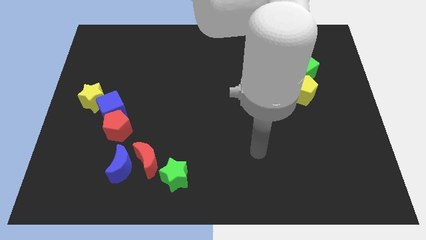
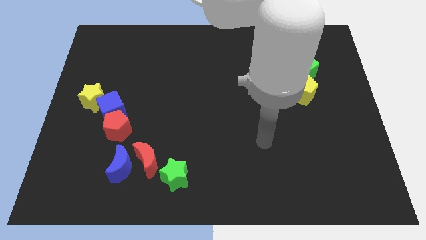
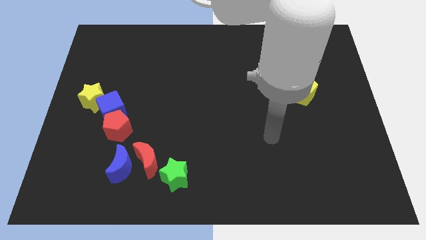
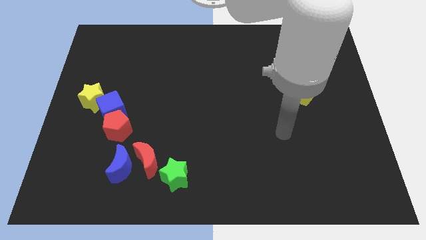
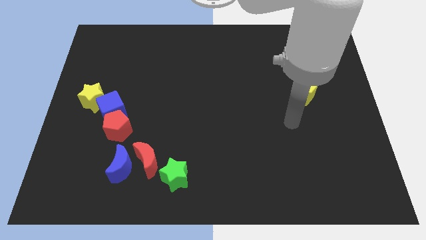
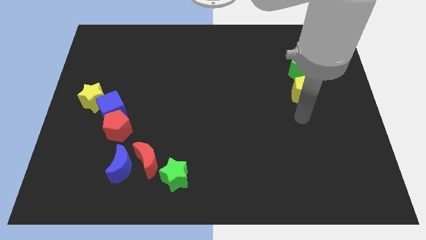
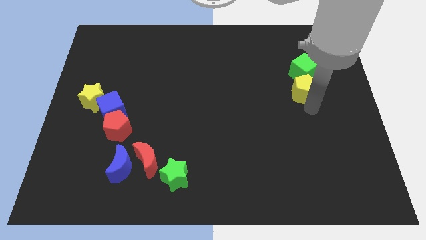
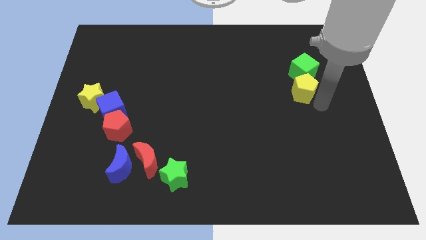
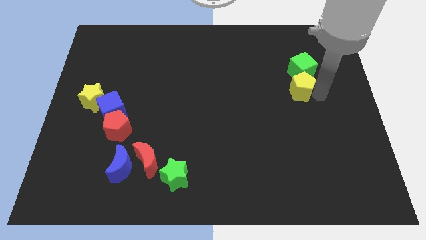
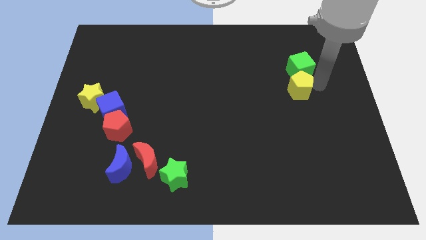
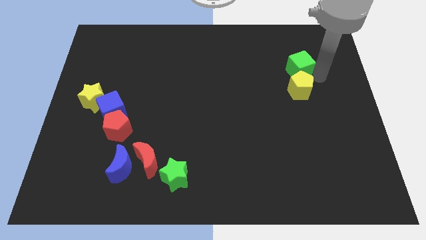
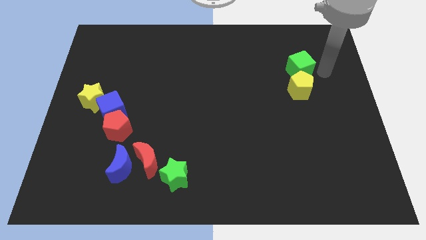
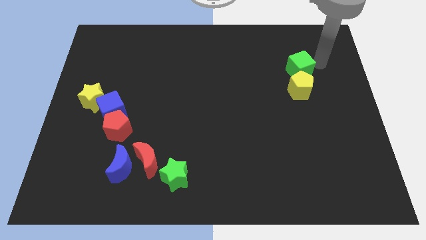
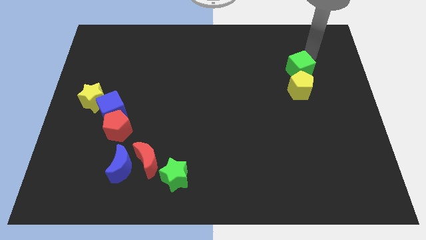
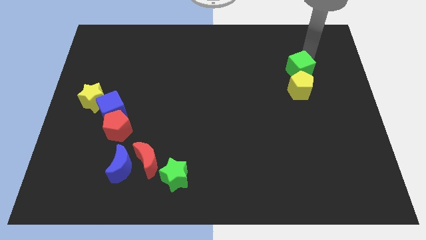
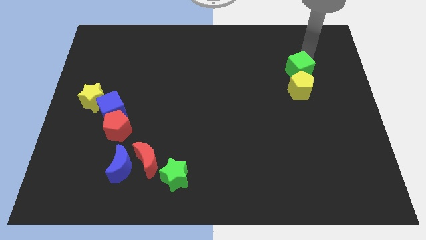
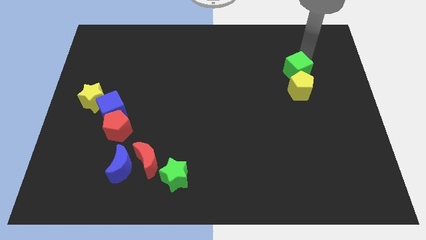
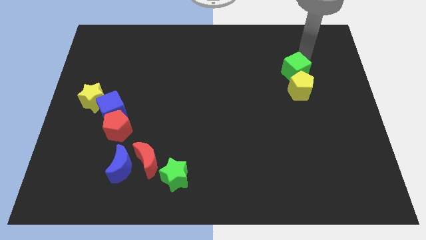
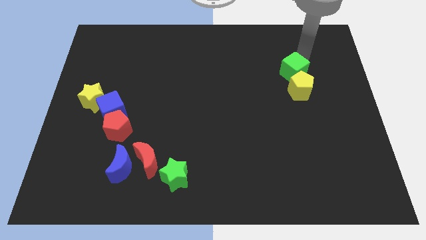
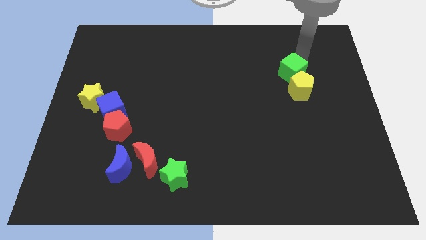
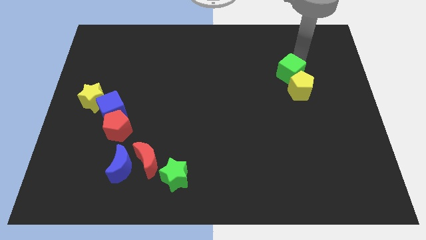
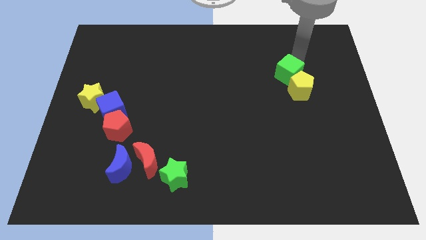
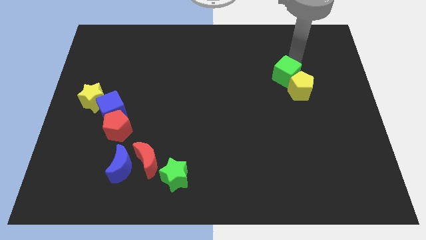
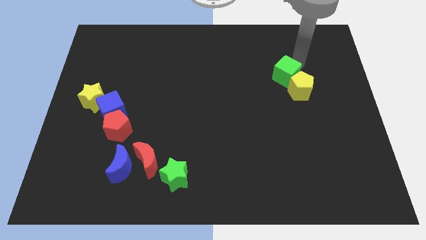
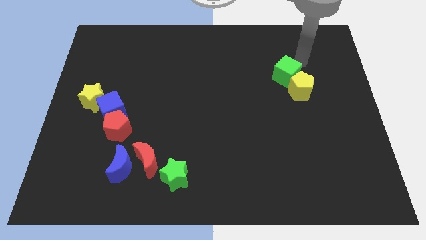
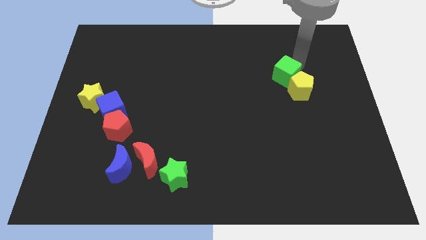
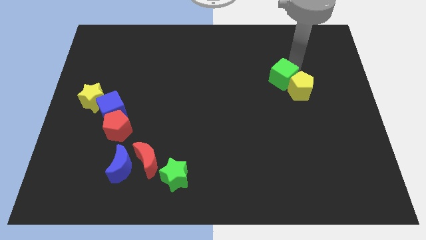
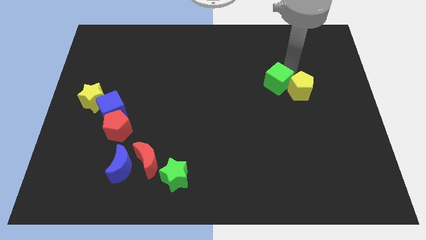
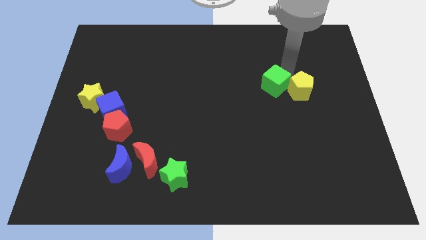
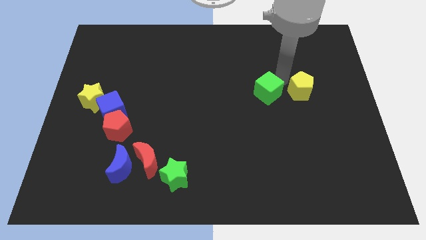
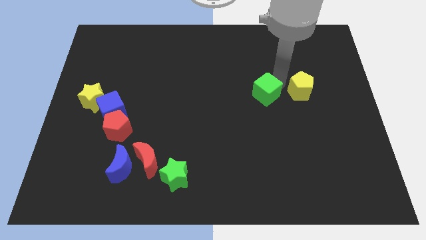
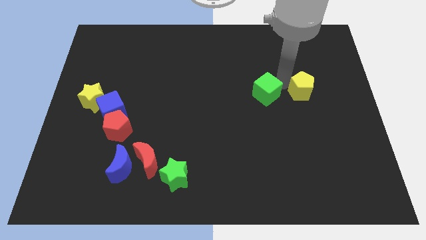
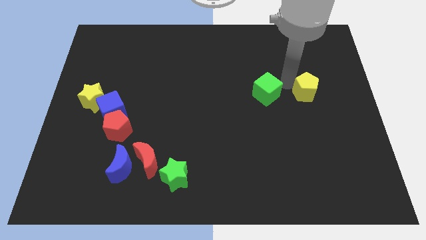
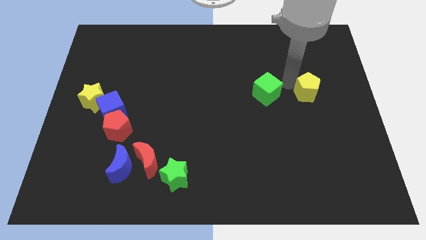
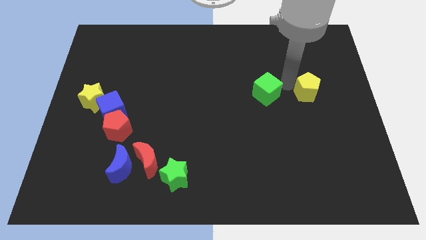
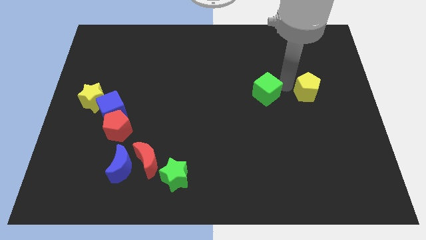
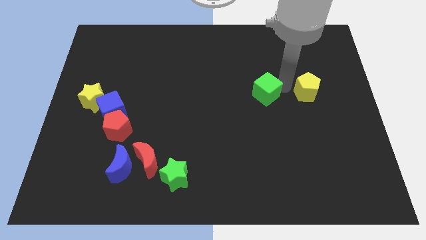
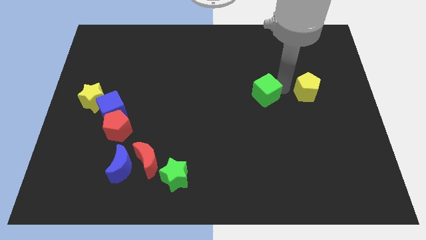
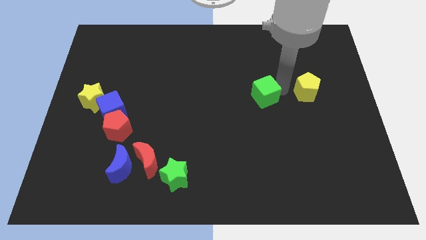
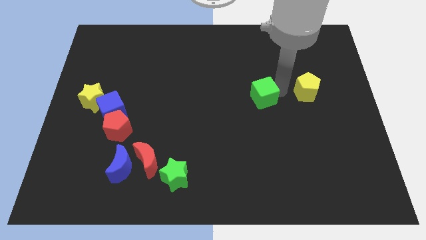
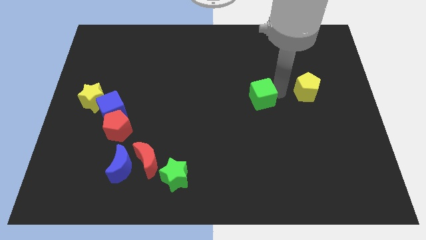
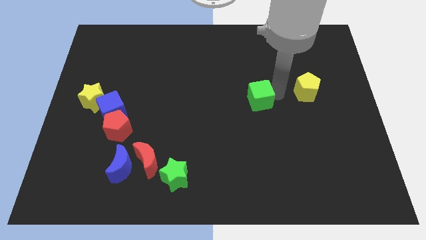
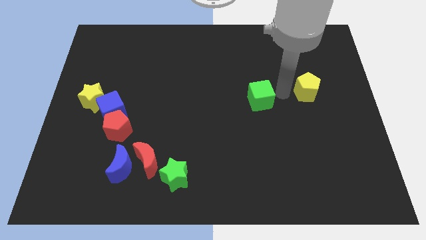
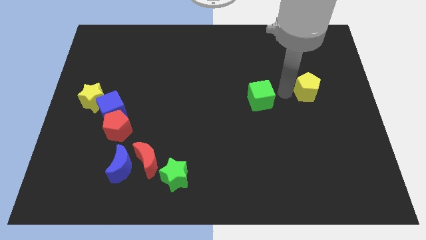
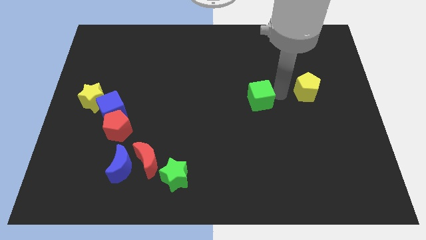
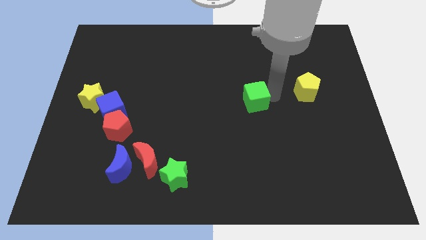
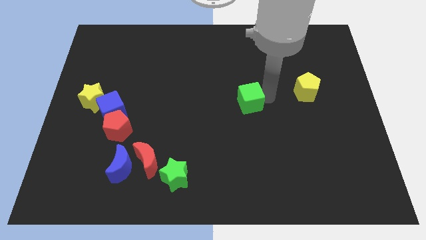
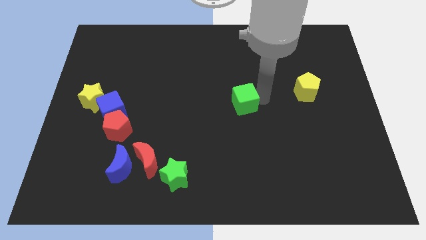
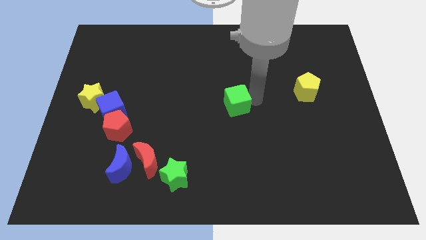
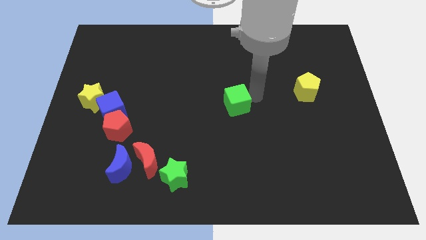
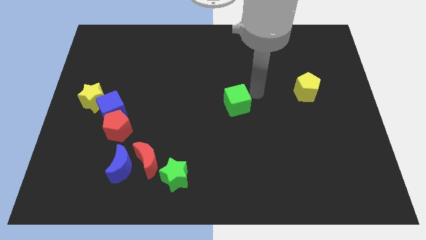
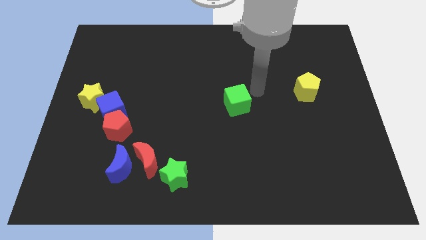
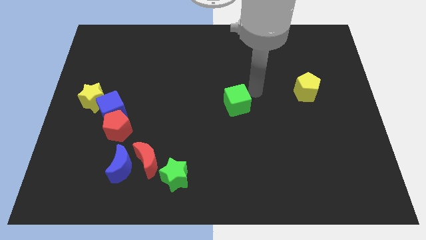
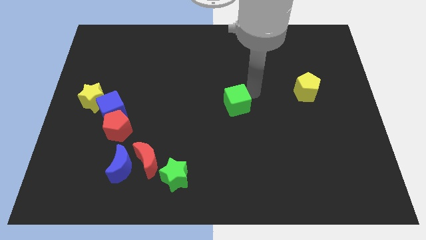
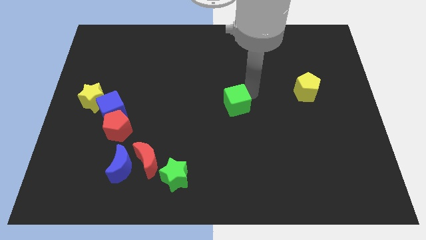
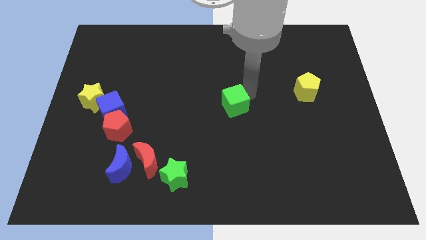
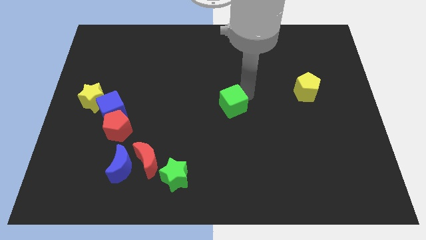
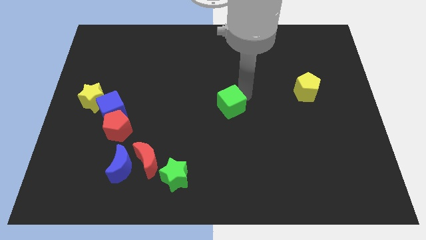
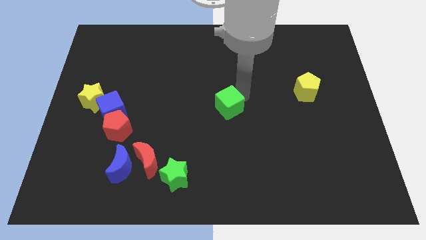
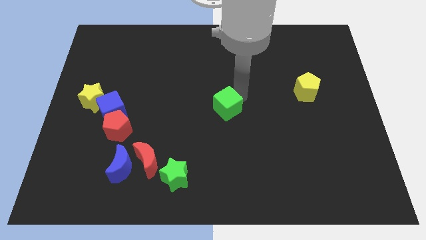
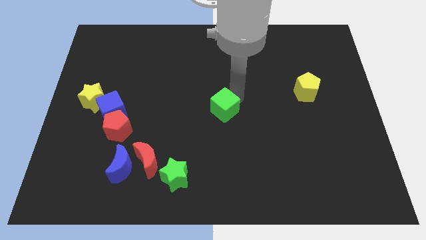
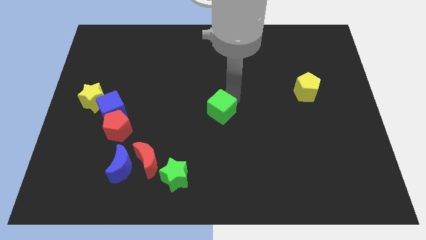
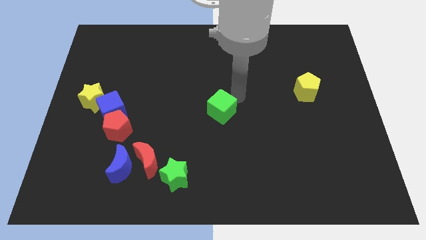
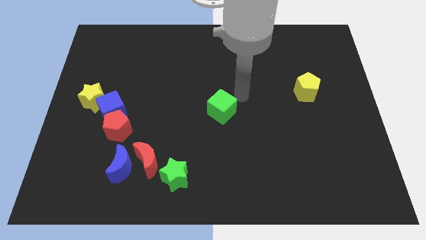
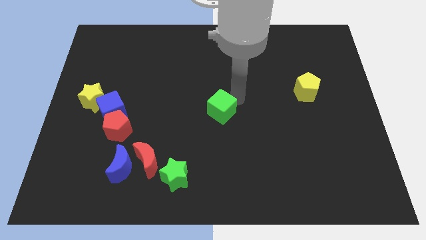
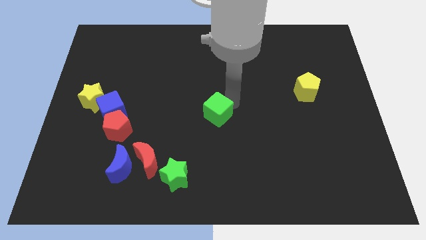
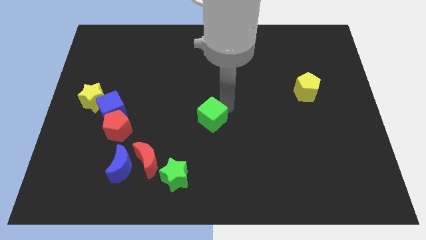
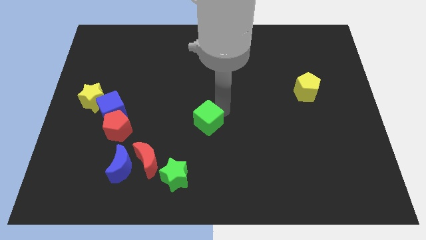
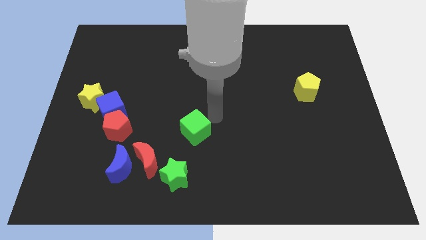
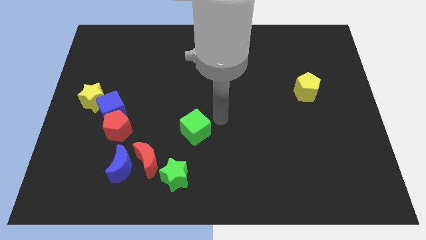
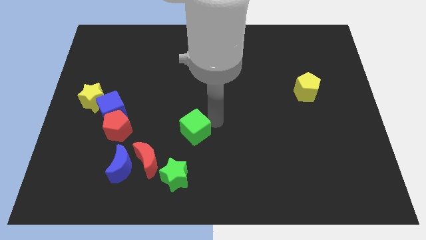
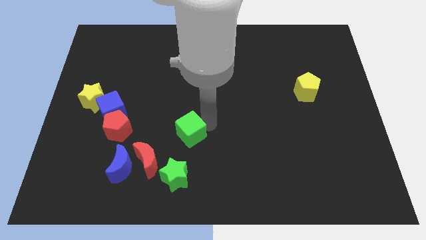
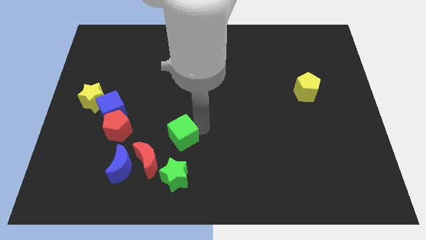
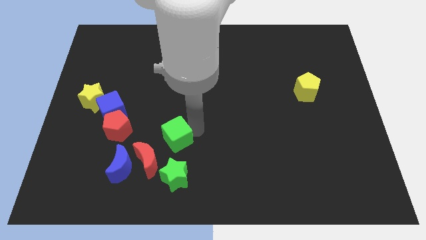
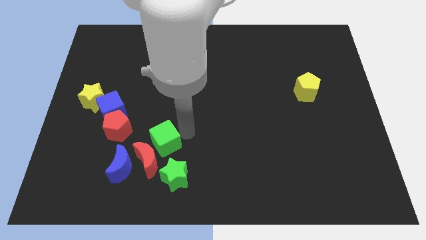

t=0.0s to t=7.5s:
push the green cube to the red moon
